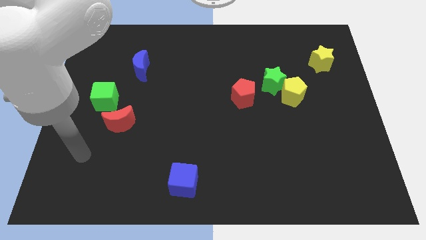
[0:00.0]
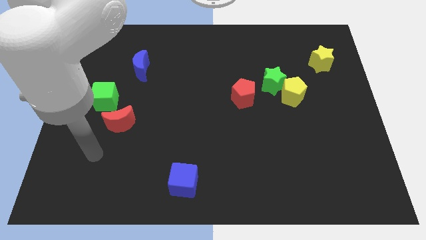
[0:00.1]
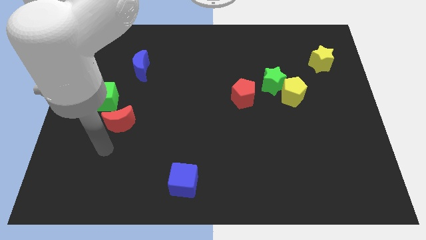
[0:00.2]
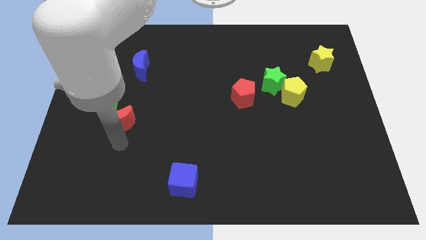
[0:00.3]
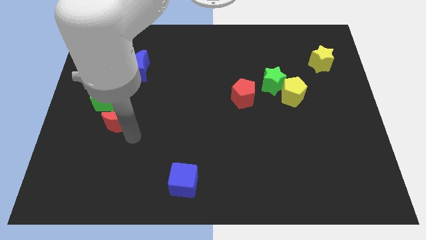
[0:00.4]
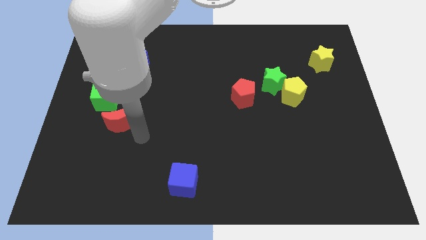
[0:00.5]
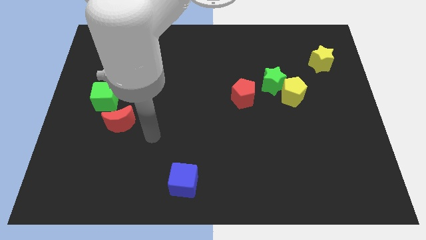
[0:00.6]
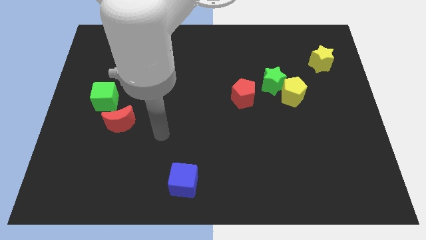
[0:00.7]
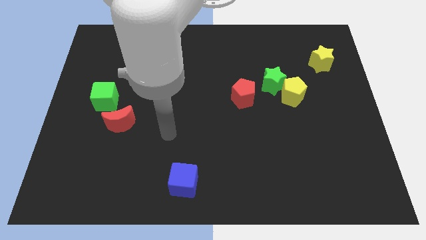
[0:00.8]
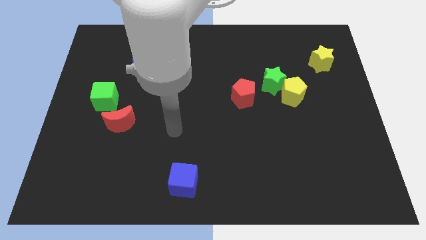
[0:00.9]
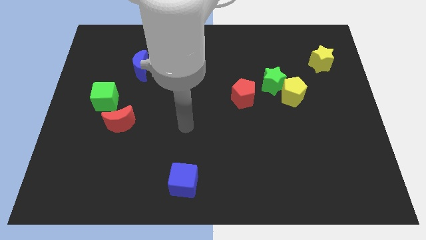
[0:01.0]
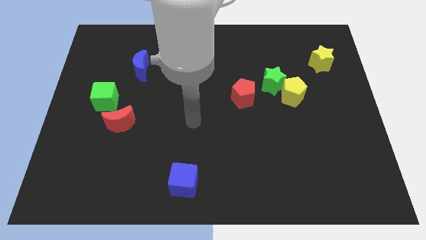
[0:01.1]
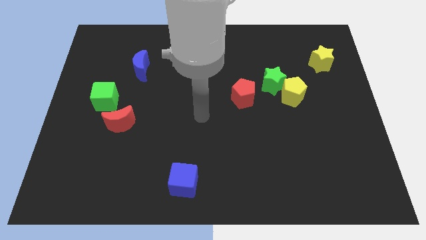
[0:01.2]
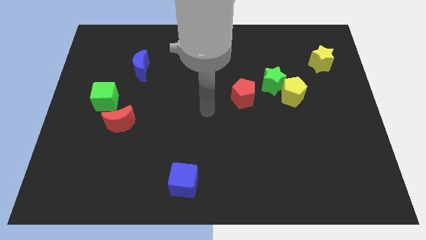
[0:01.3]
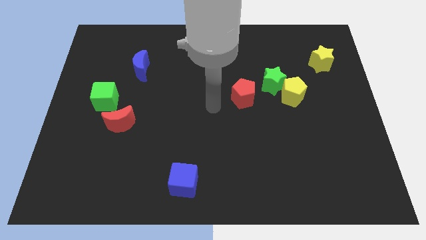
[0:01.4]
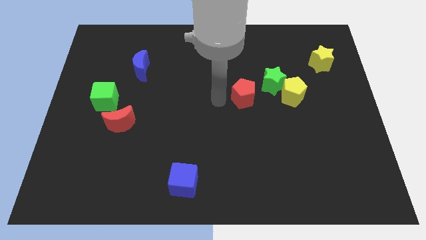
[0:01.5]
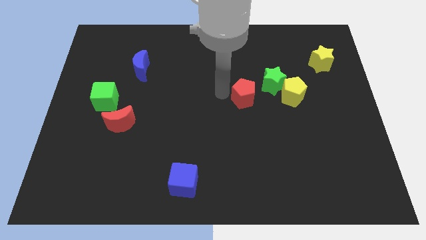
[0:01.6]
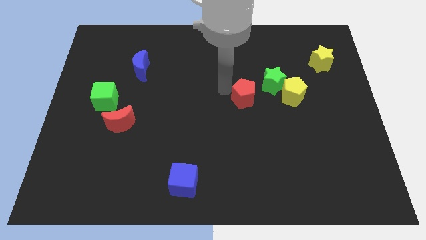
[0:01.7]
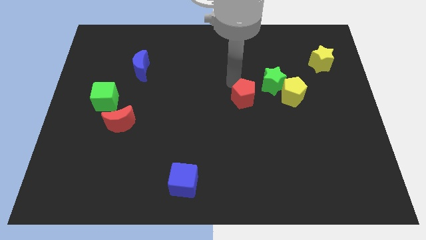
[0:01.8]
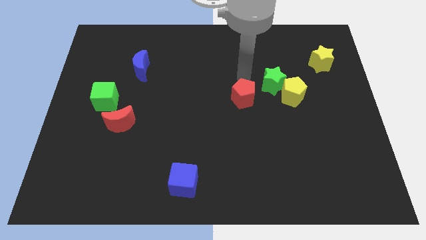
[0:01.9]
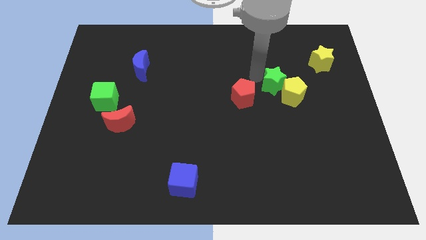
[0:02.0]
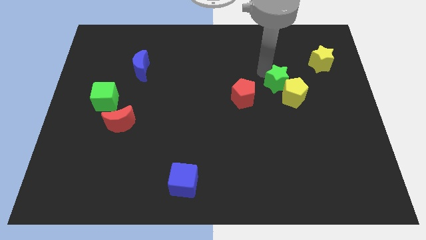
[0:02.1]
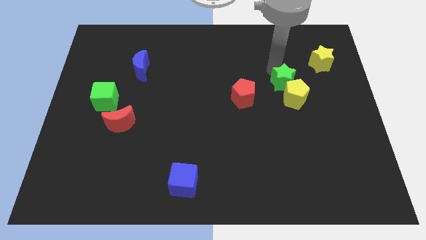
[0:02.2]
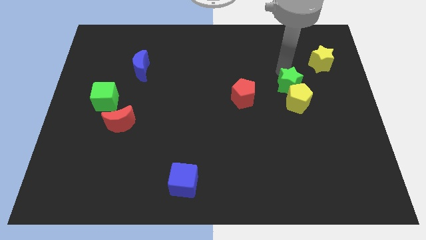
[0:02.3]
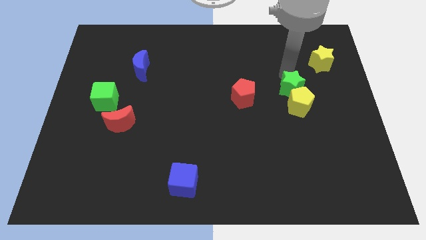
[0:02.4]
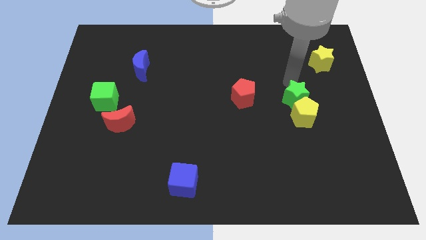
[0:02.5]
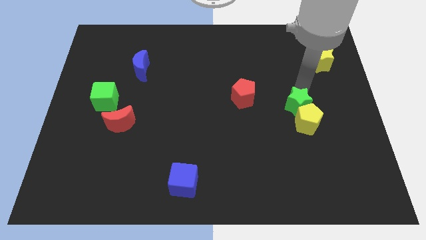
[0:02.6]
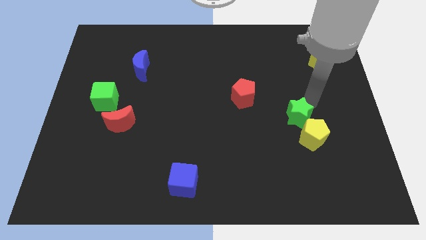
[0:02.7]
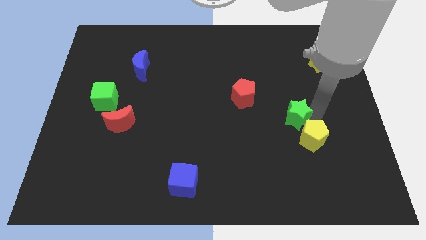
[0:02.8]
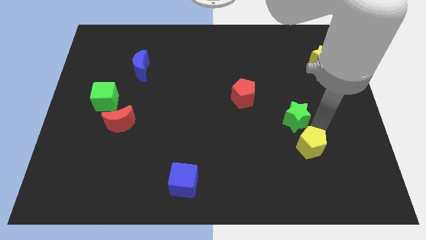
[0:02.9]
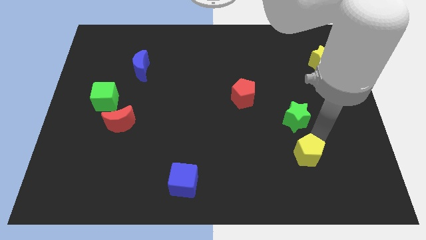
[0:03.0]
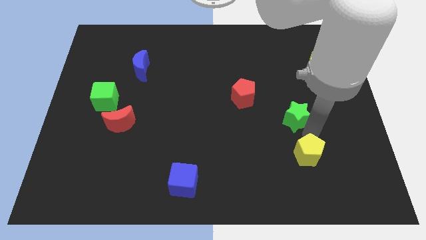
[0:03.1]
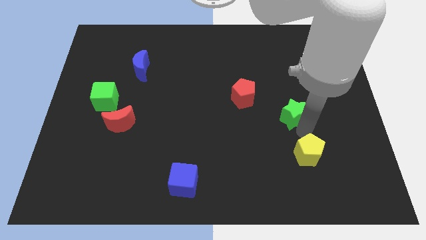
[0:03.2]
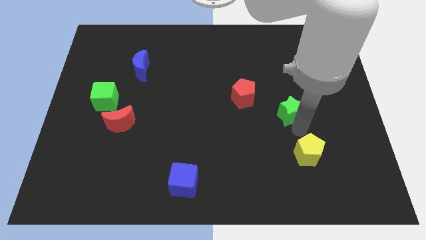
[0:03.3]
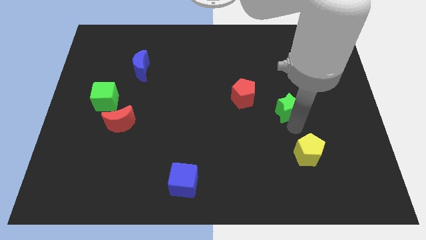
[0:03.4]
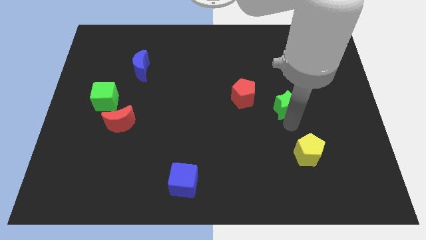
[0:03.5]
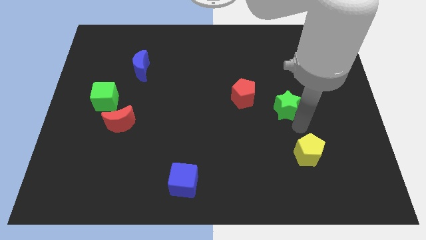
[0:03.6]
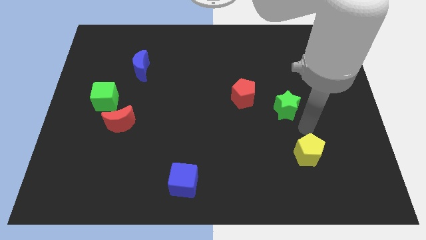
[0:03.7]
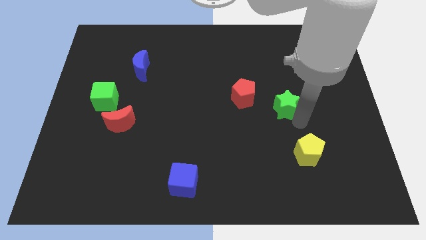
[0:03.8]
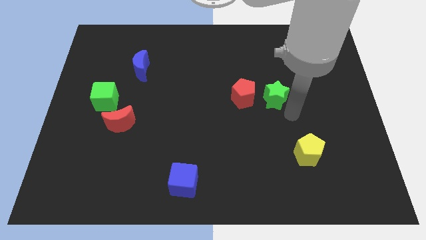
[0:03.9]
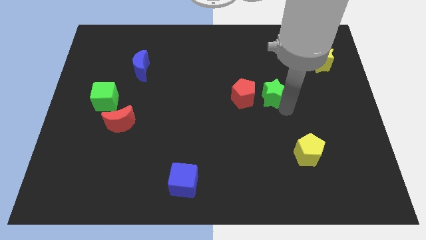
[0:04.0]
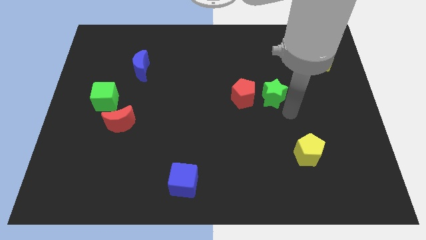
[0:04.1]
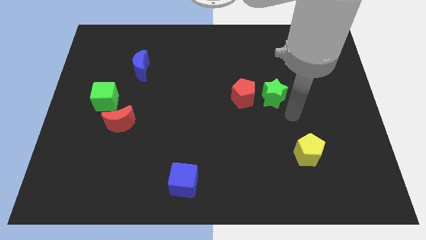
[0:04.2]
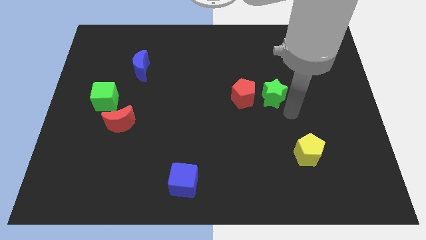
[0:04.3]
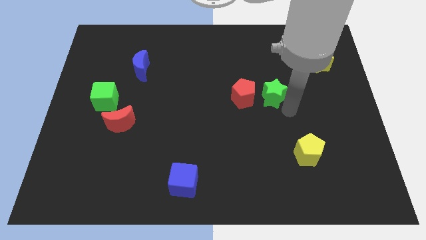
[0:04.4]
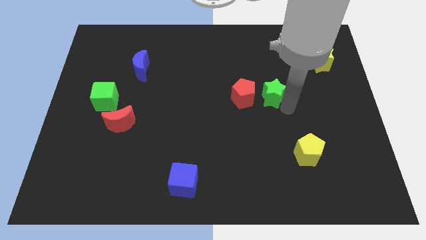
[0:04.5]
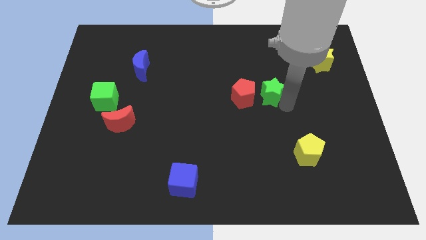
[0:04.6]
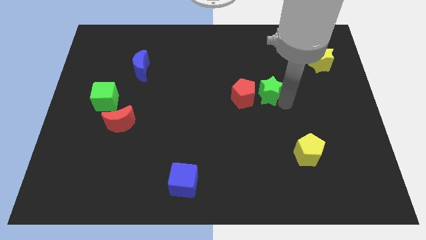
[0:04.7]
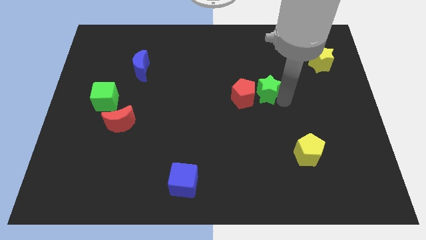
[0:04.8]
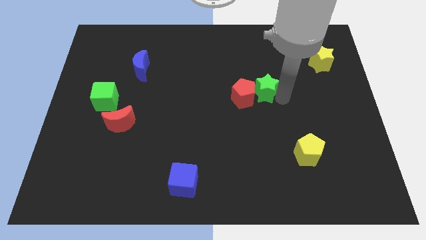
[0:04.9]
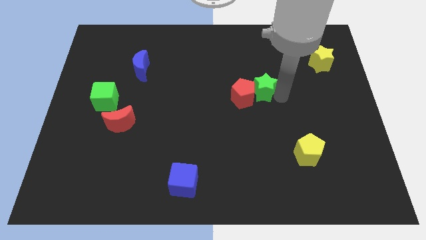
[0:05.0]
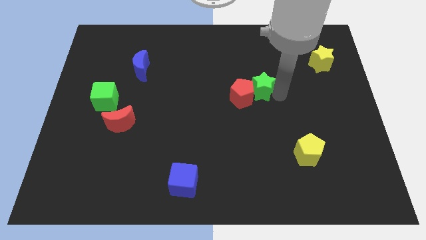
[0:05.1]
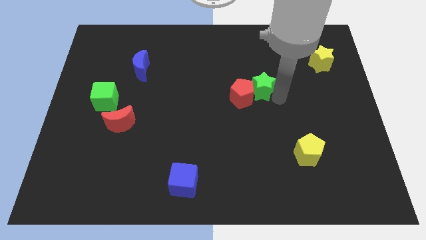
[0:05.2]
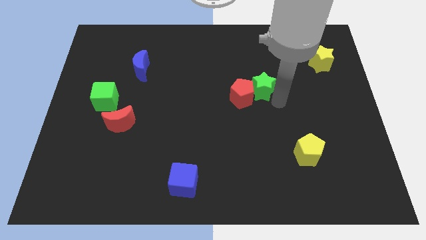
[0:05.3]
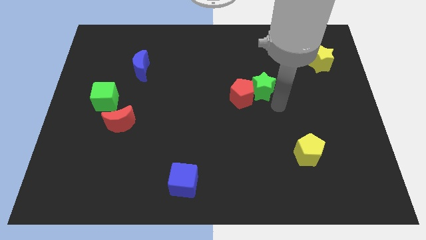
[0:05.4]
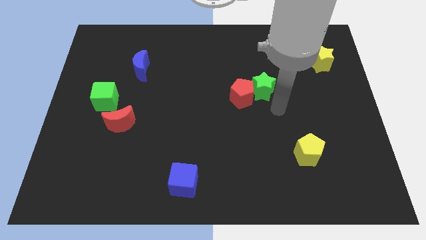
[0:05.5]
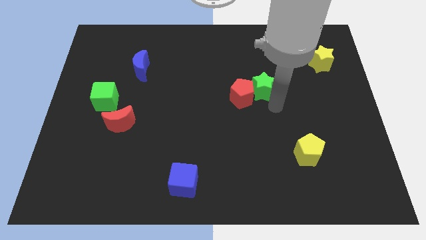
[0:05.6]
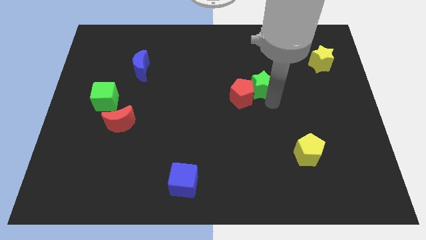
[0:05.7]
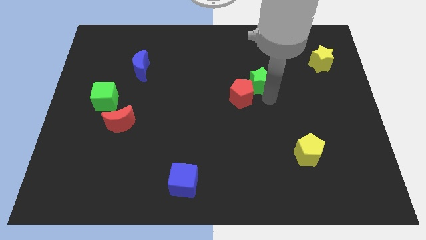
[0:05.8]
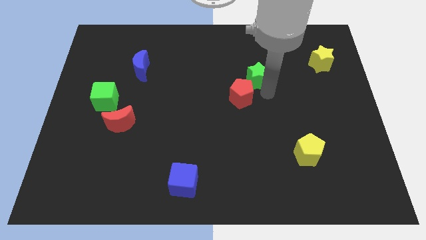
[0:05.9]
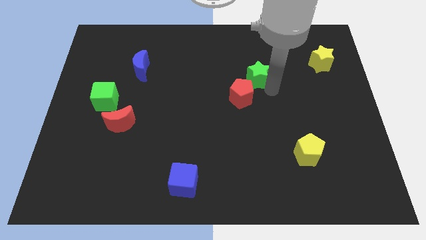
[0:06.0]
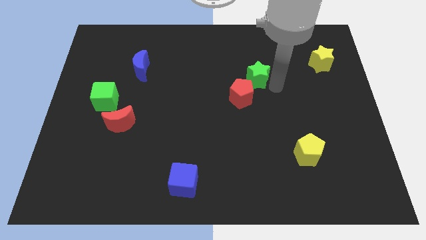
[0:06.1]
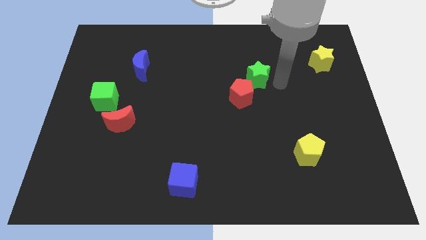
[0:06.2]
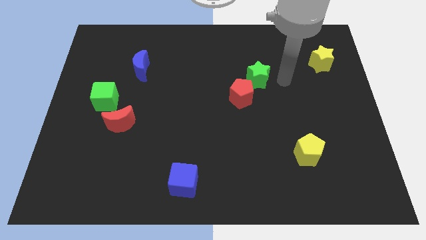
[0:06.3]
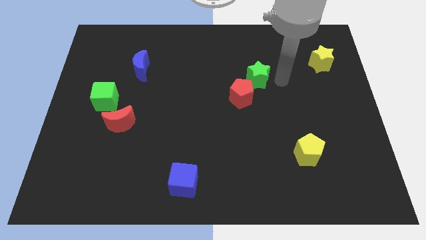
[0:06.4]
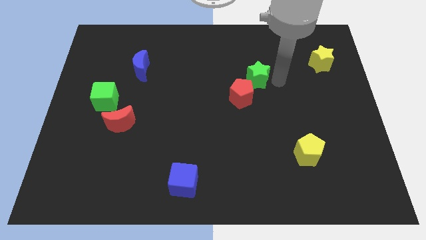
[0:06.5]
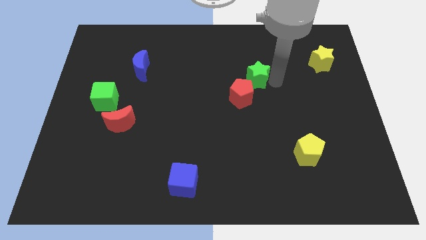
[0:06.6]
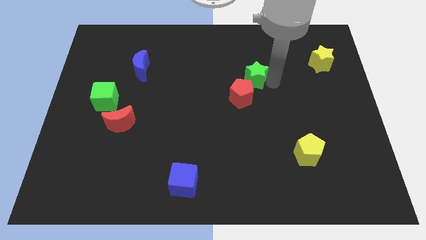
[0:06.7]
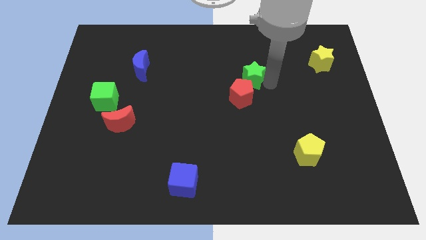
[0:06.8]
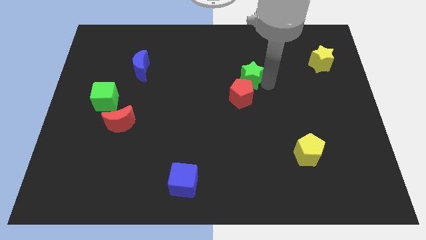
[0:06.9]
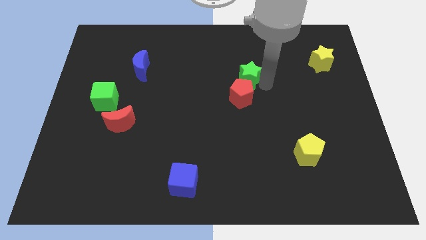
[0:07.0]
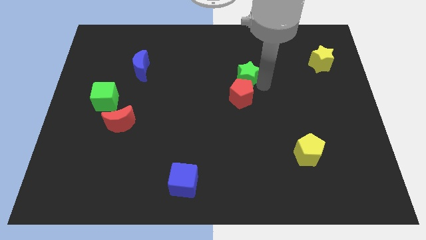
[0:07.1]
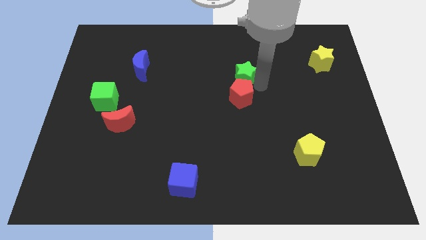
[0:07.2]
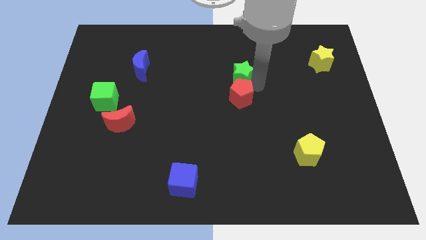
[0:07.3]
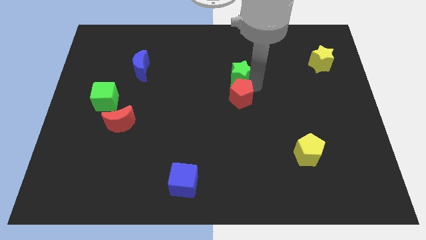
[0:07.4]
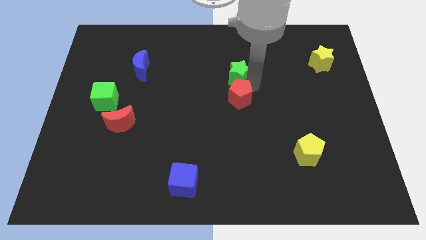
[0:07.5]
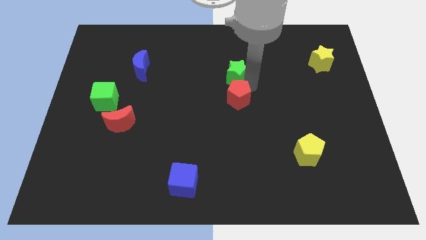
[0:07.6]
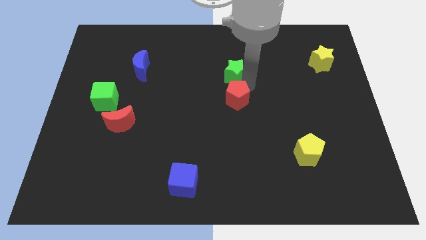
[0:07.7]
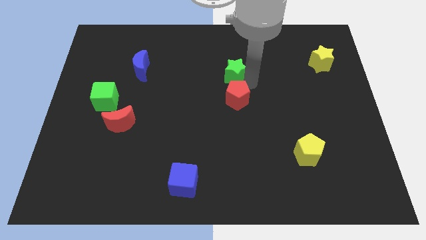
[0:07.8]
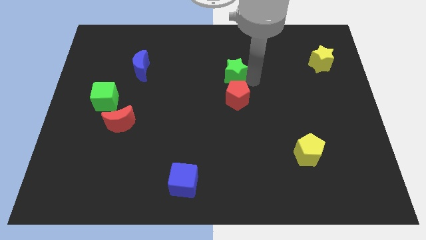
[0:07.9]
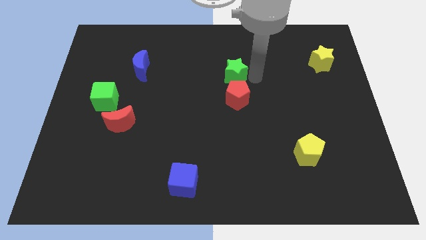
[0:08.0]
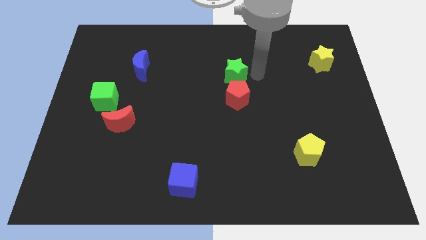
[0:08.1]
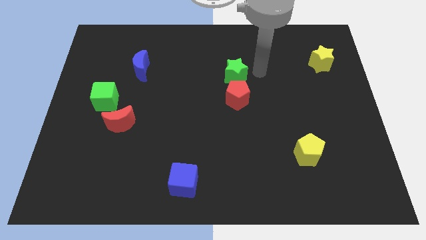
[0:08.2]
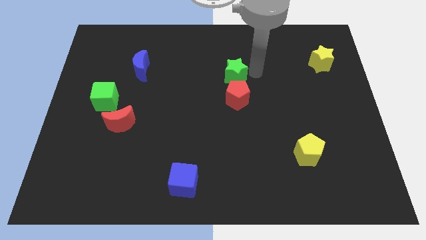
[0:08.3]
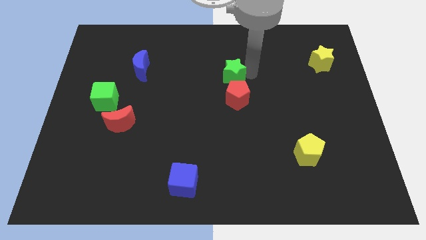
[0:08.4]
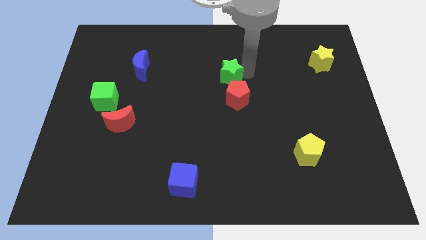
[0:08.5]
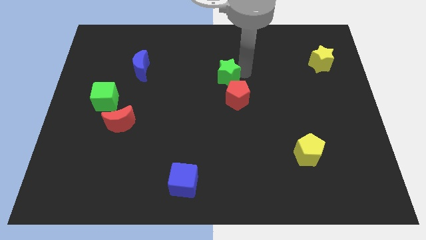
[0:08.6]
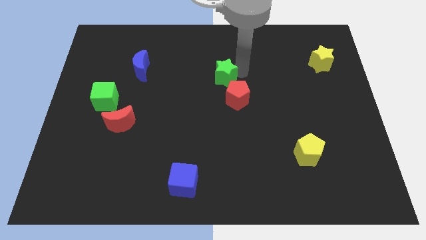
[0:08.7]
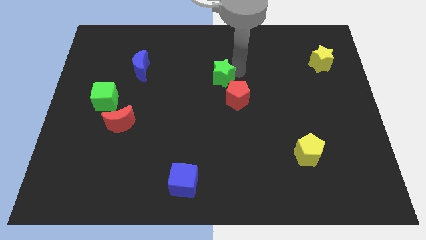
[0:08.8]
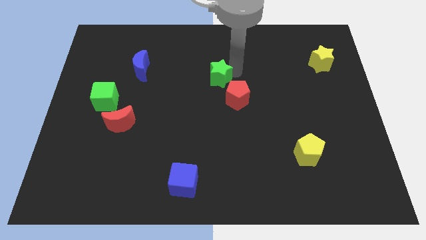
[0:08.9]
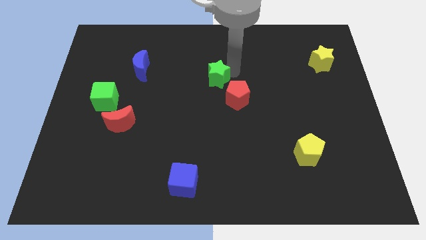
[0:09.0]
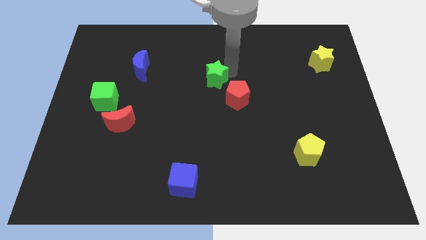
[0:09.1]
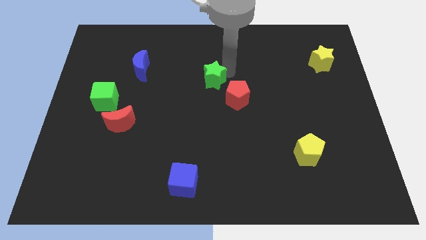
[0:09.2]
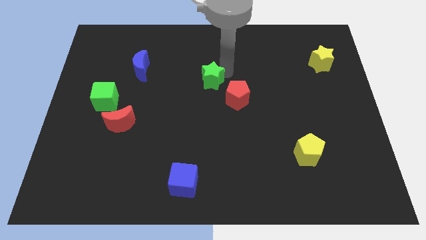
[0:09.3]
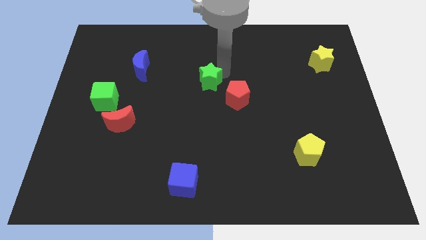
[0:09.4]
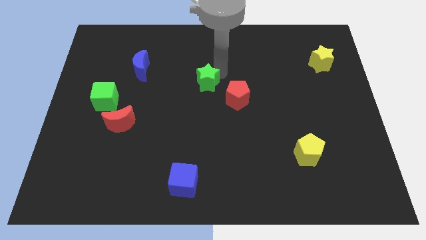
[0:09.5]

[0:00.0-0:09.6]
move the green star to the left side of the red pentagon
